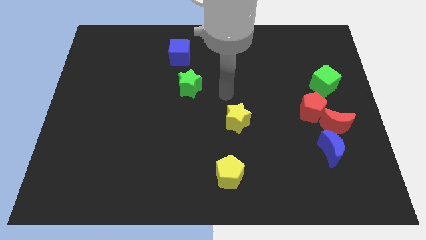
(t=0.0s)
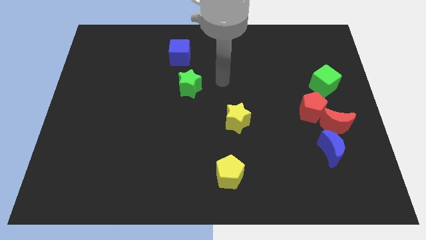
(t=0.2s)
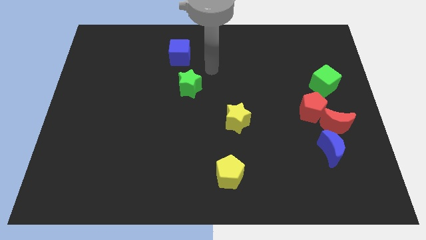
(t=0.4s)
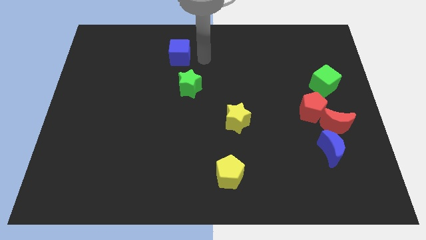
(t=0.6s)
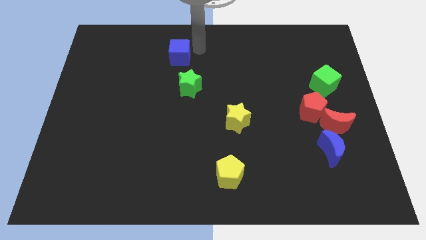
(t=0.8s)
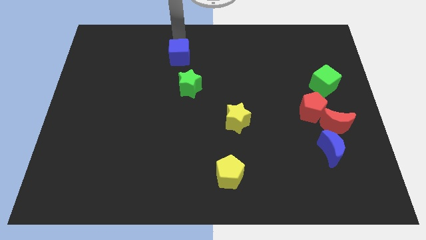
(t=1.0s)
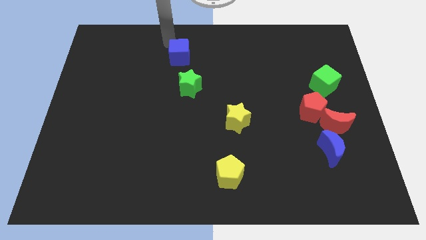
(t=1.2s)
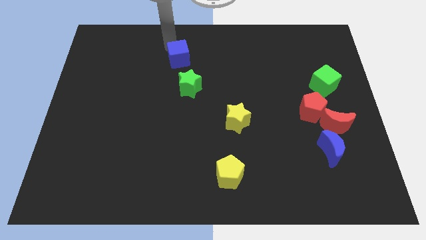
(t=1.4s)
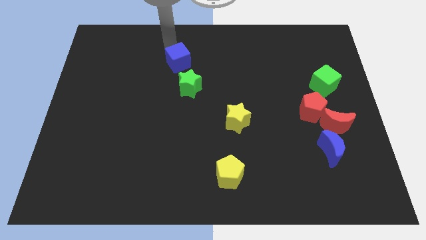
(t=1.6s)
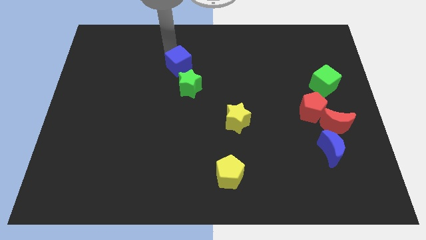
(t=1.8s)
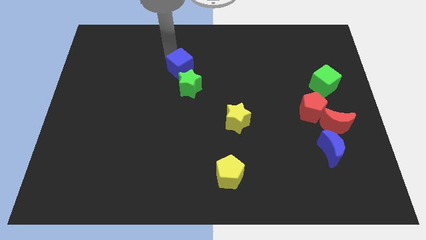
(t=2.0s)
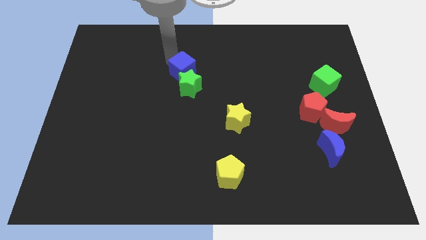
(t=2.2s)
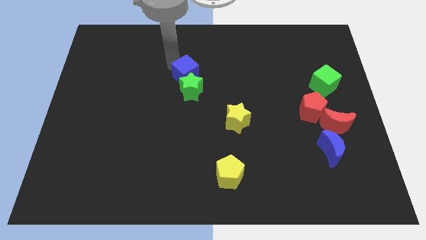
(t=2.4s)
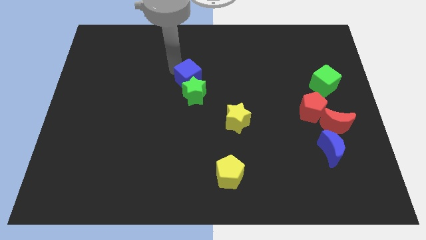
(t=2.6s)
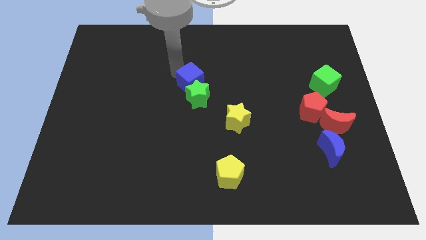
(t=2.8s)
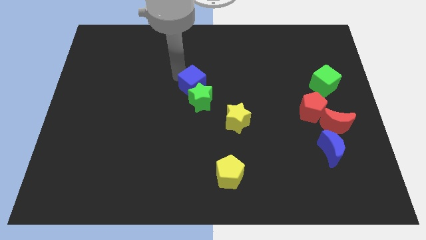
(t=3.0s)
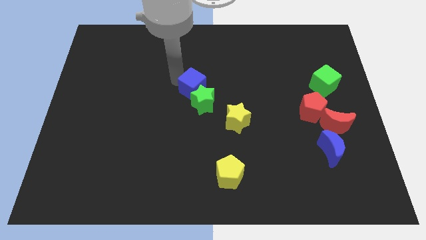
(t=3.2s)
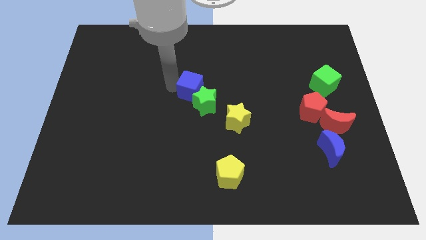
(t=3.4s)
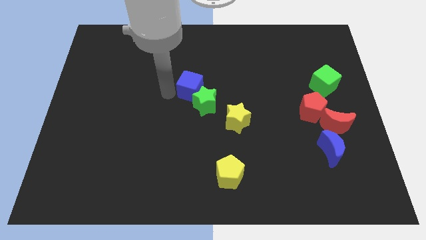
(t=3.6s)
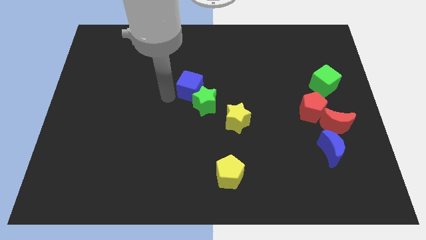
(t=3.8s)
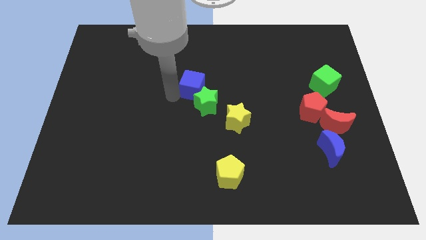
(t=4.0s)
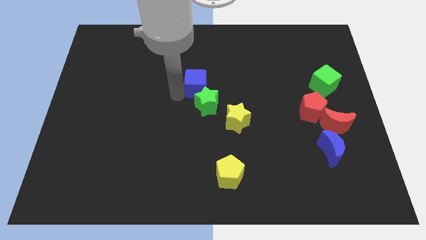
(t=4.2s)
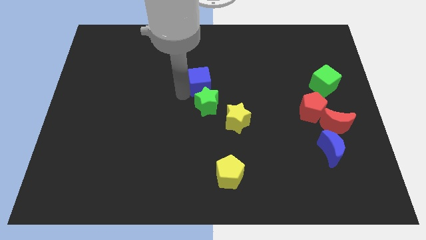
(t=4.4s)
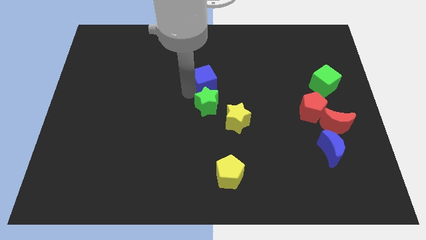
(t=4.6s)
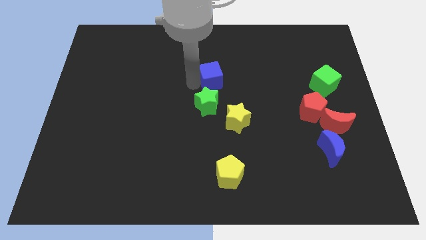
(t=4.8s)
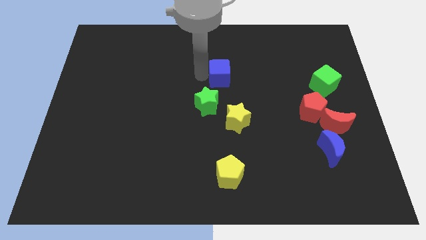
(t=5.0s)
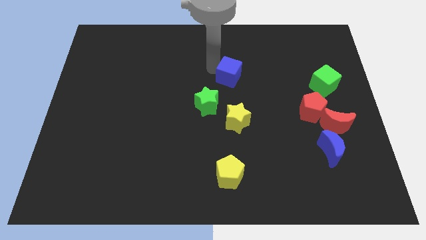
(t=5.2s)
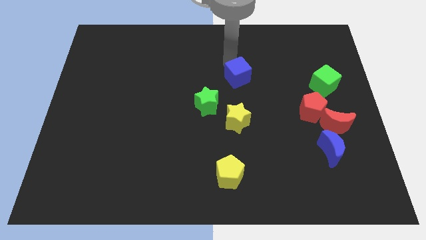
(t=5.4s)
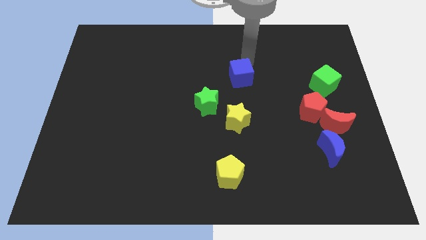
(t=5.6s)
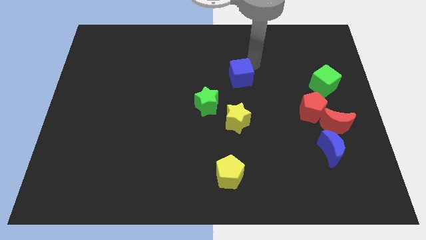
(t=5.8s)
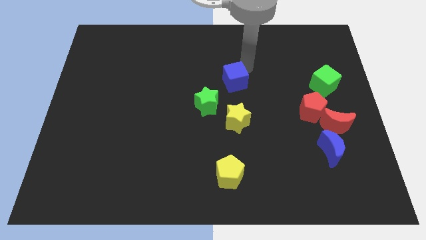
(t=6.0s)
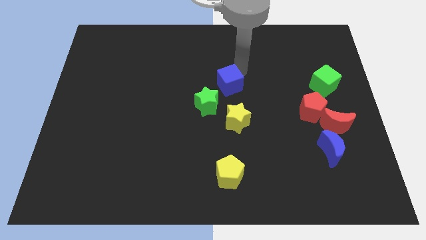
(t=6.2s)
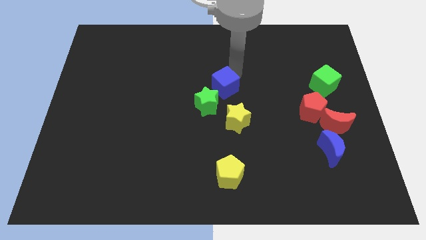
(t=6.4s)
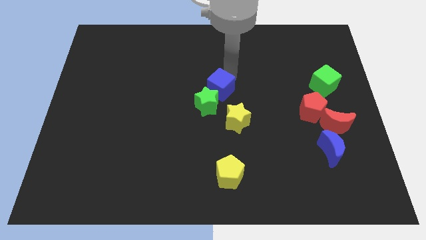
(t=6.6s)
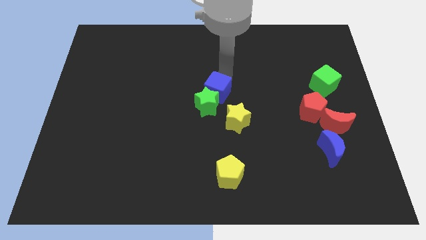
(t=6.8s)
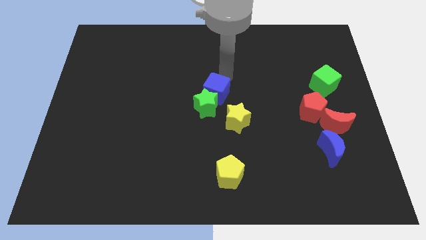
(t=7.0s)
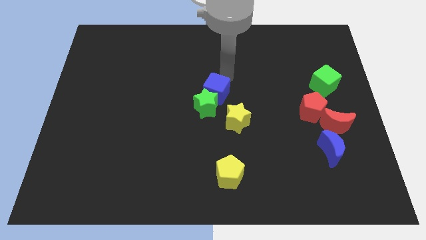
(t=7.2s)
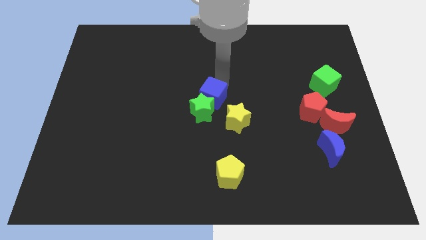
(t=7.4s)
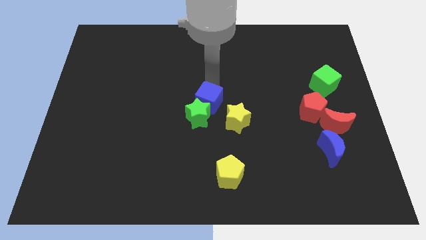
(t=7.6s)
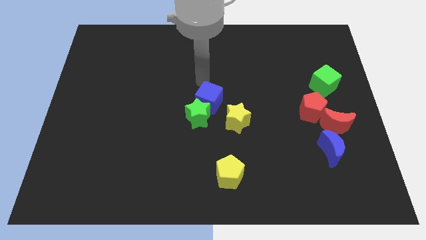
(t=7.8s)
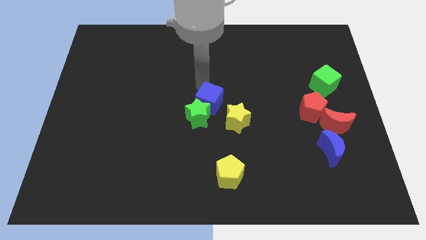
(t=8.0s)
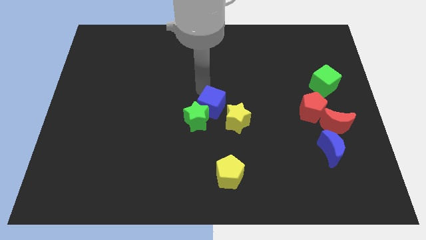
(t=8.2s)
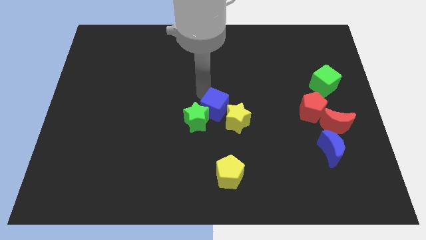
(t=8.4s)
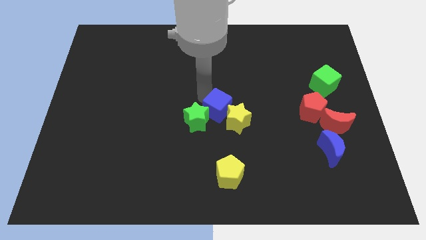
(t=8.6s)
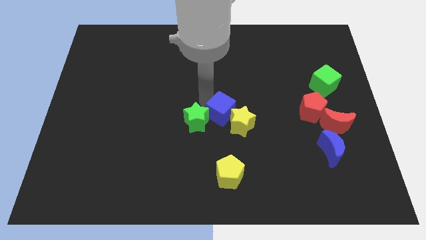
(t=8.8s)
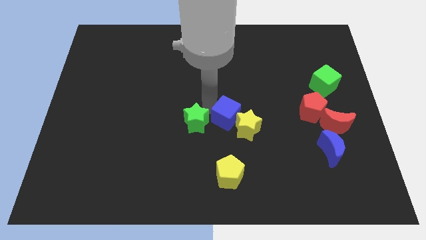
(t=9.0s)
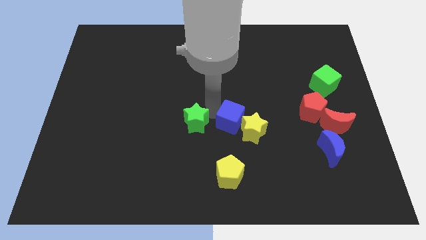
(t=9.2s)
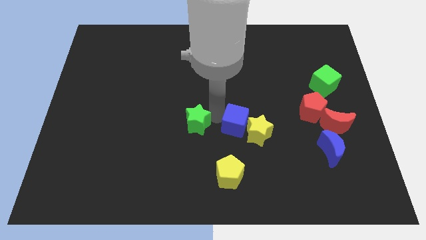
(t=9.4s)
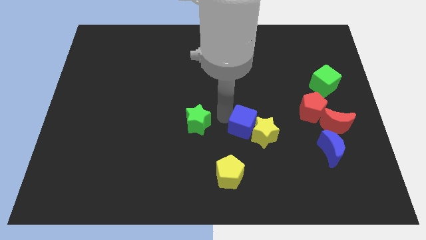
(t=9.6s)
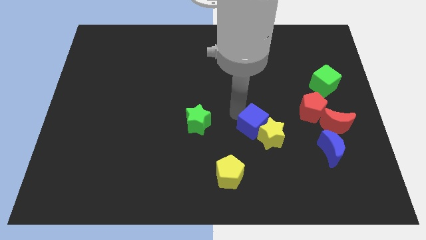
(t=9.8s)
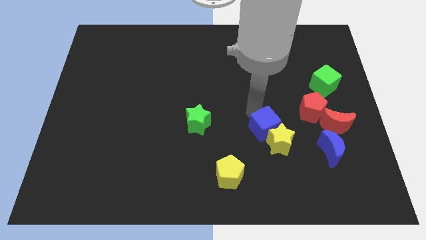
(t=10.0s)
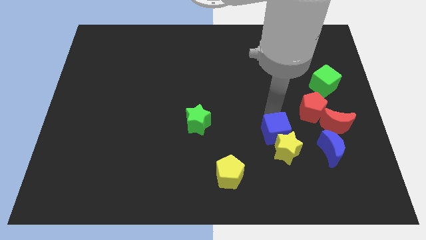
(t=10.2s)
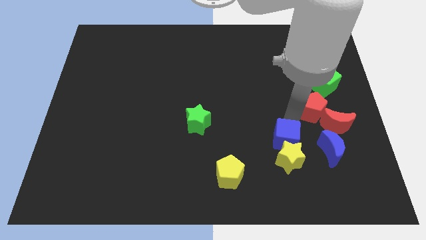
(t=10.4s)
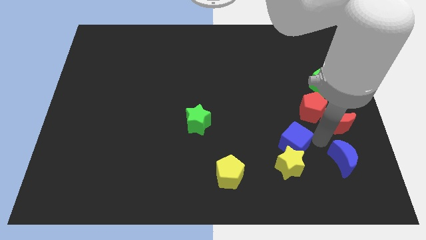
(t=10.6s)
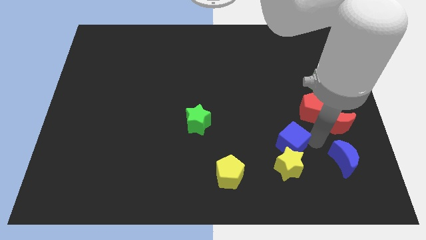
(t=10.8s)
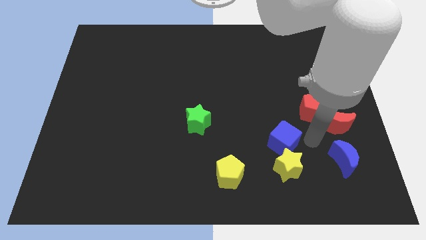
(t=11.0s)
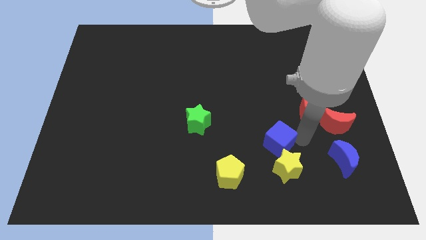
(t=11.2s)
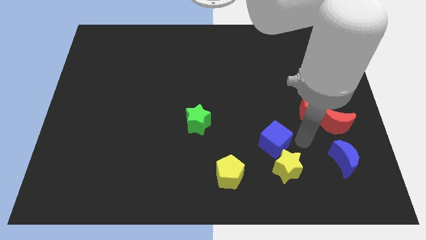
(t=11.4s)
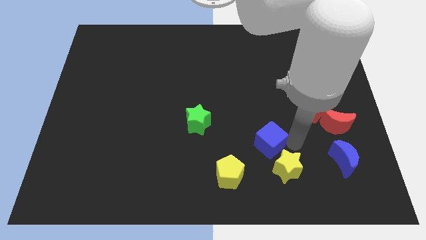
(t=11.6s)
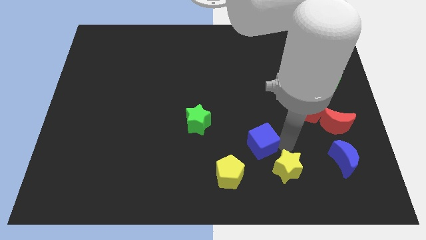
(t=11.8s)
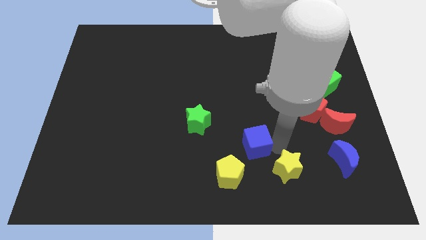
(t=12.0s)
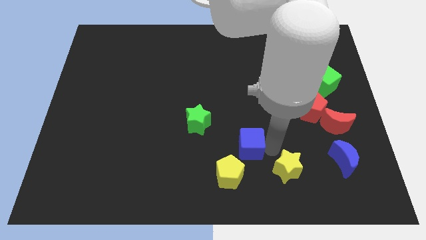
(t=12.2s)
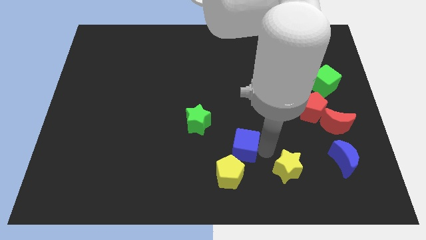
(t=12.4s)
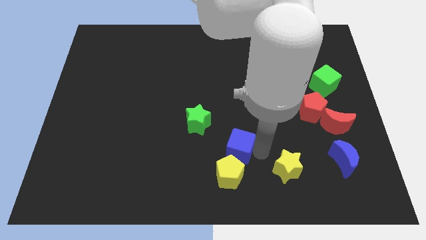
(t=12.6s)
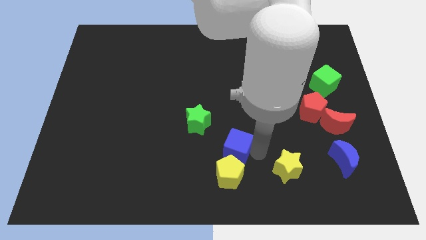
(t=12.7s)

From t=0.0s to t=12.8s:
push the blue cube towards the yellow pentagon

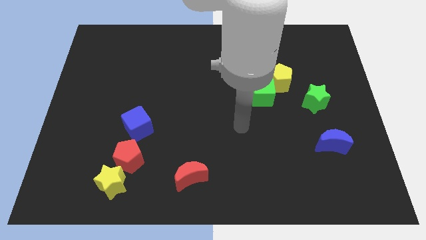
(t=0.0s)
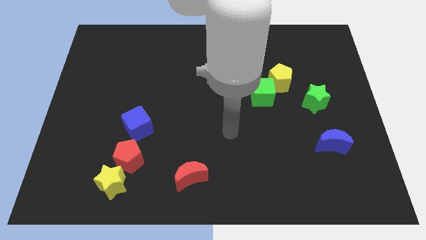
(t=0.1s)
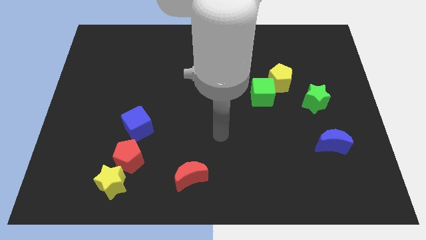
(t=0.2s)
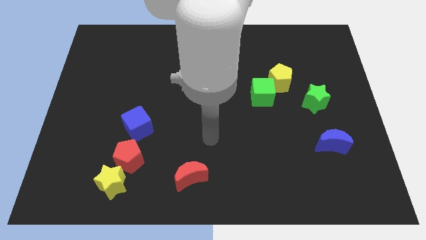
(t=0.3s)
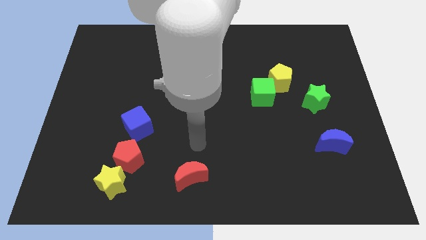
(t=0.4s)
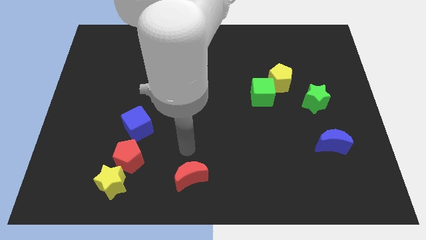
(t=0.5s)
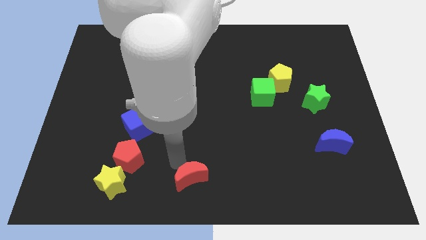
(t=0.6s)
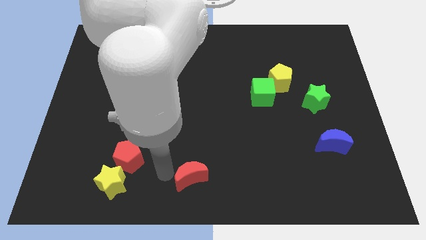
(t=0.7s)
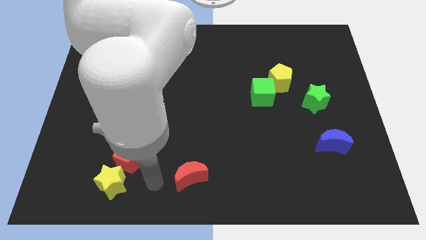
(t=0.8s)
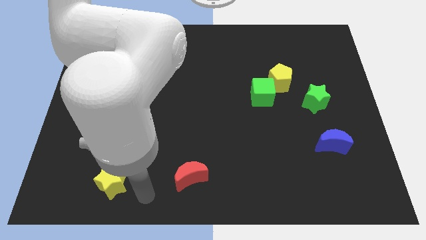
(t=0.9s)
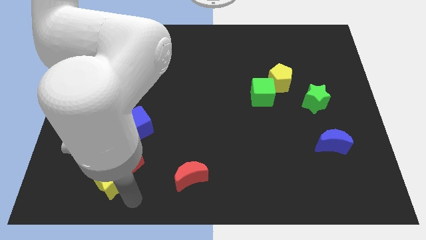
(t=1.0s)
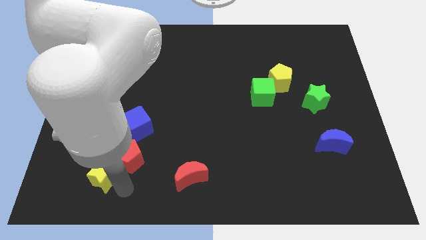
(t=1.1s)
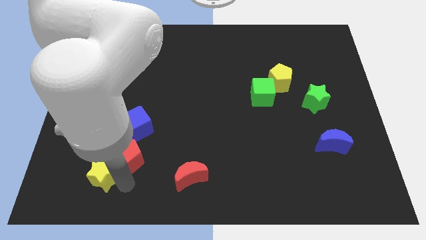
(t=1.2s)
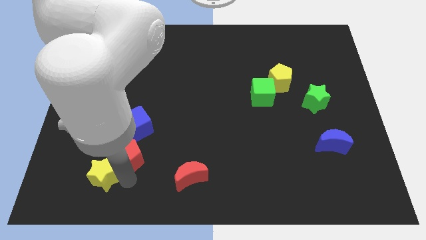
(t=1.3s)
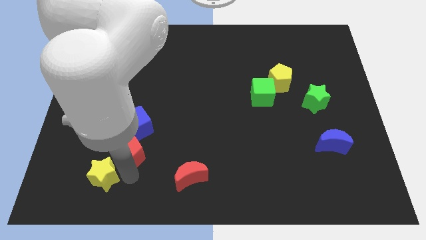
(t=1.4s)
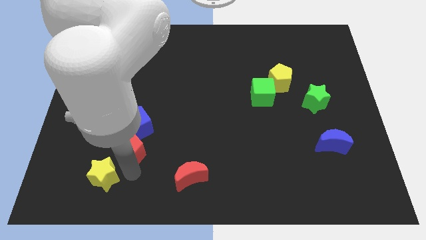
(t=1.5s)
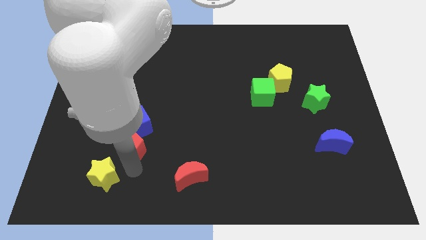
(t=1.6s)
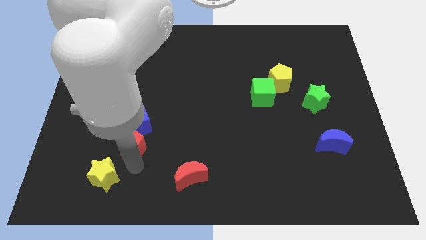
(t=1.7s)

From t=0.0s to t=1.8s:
push the red pentagon next to the blue cube
